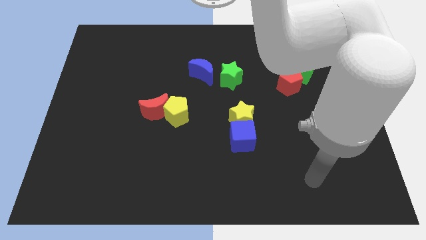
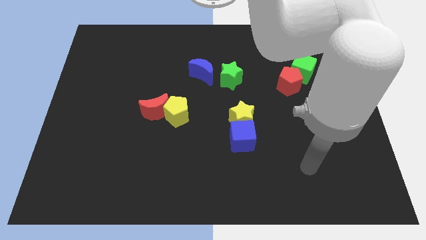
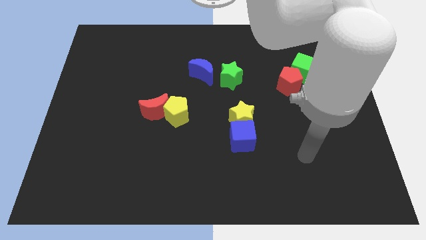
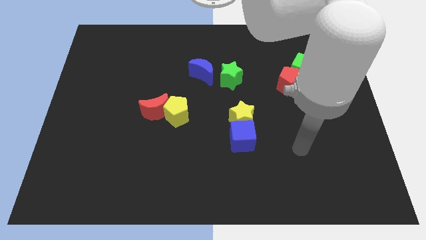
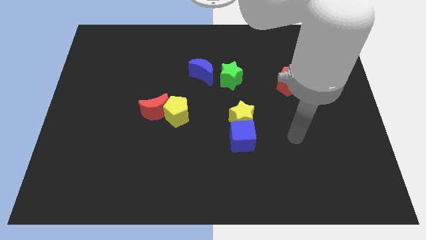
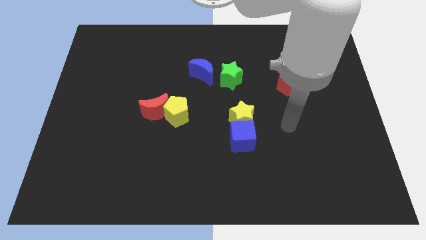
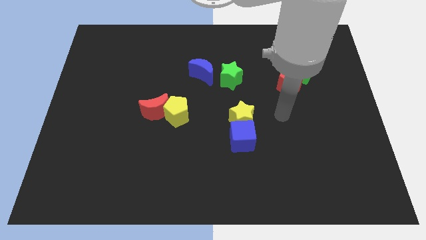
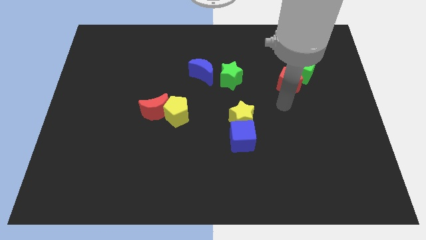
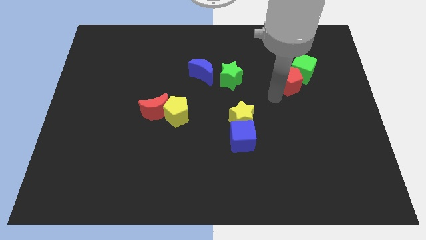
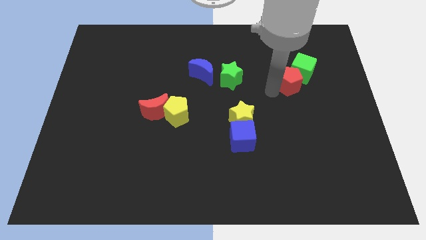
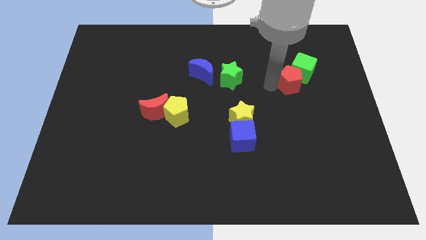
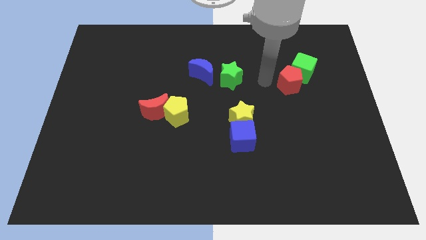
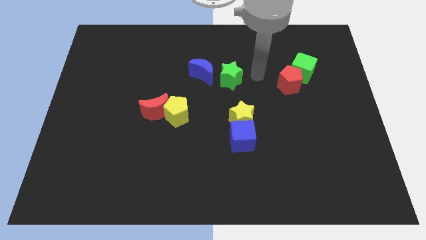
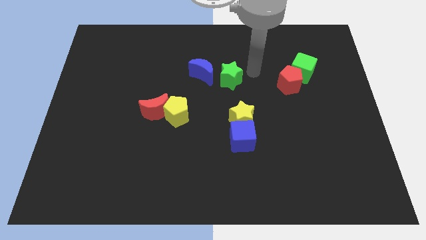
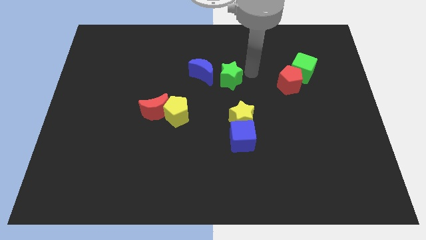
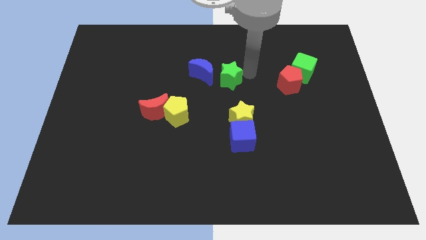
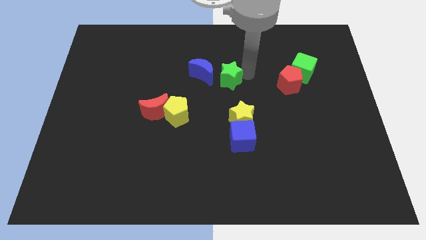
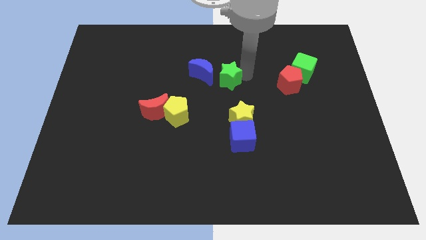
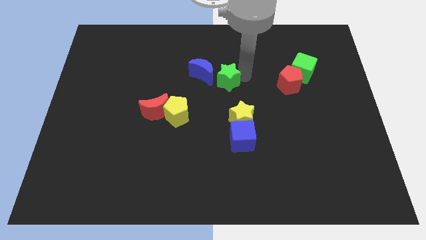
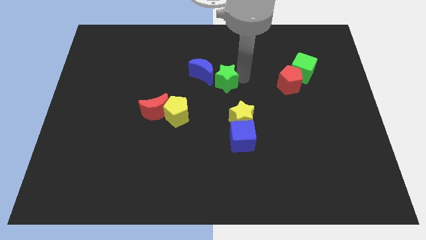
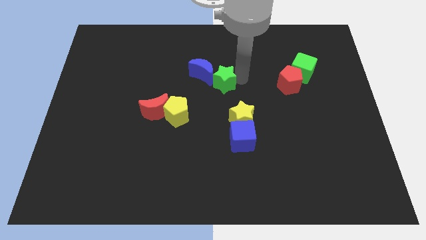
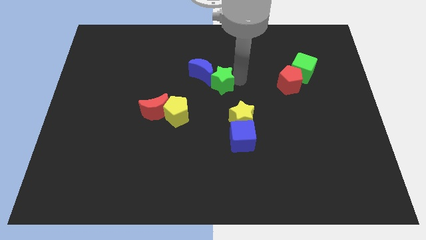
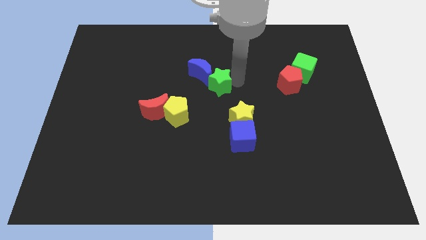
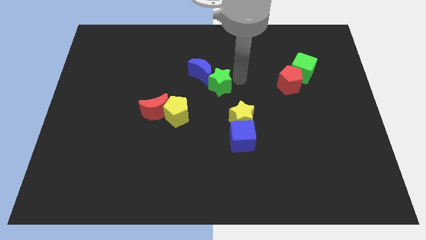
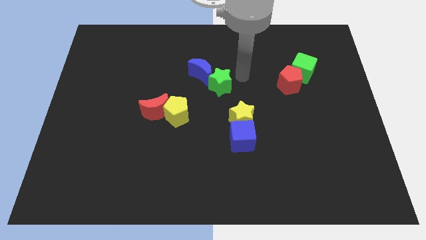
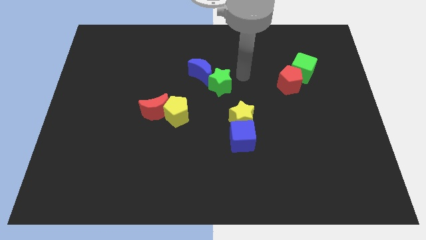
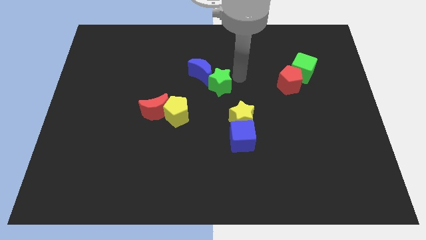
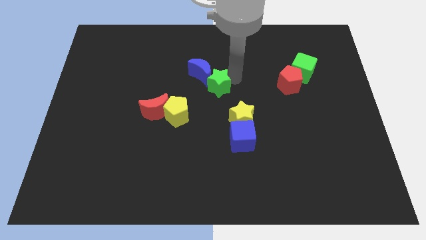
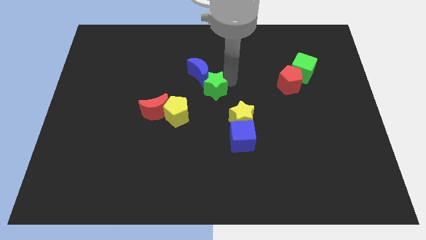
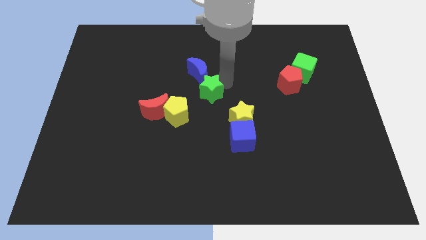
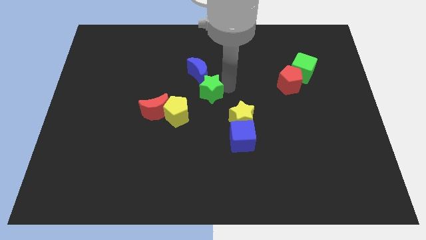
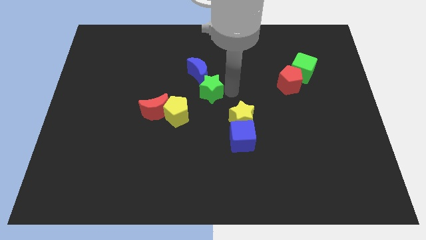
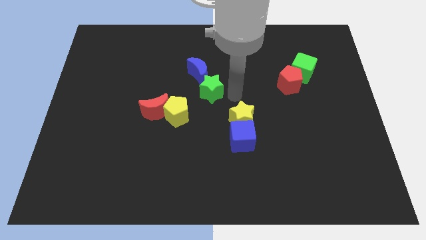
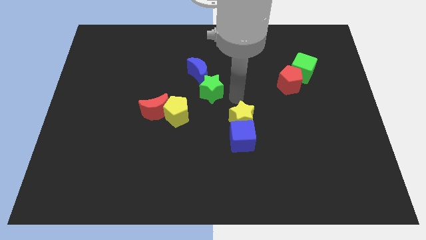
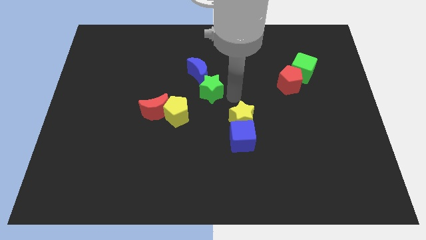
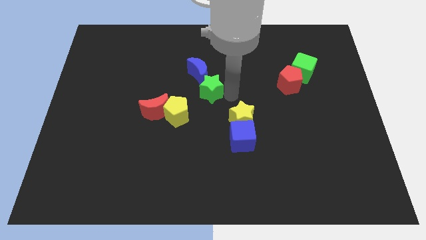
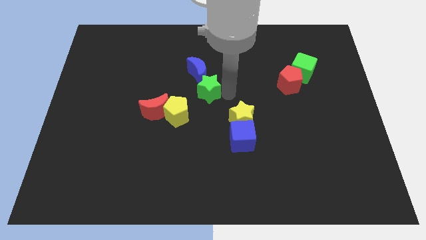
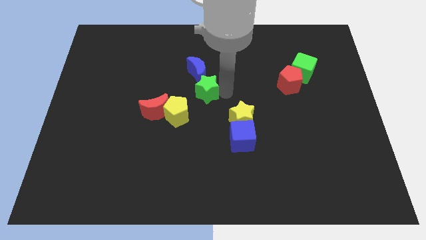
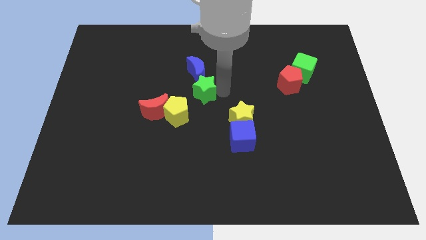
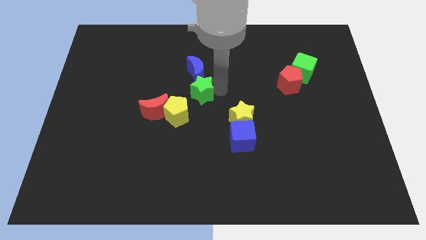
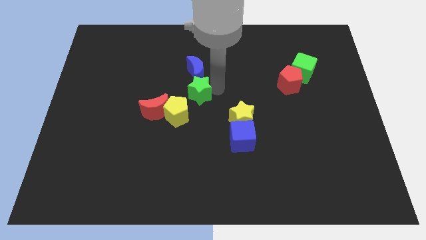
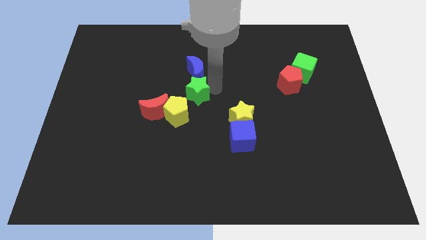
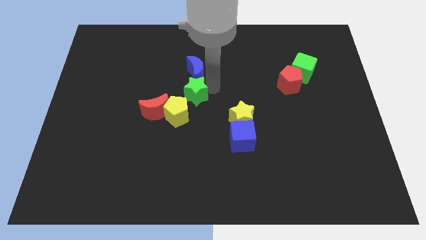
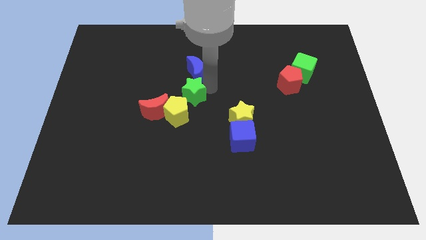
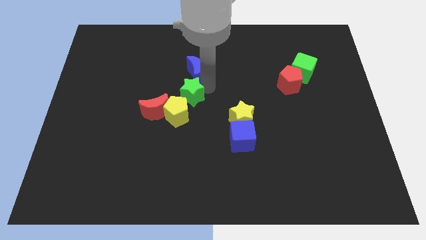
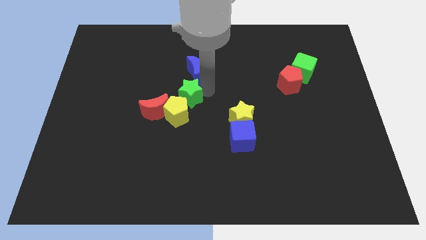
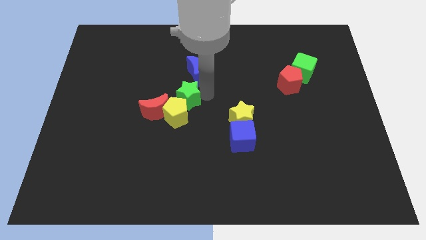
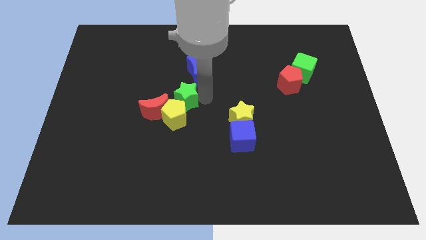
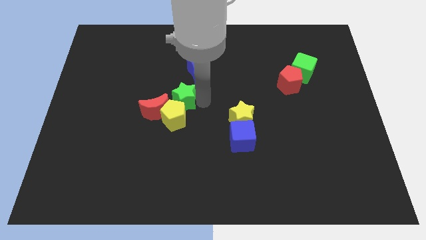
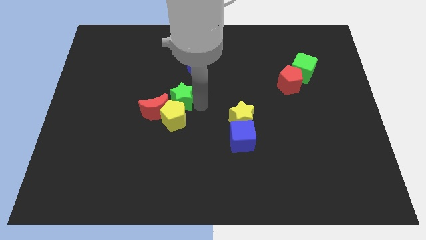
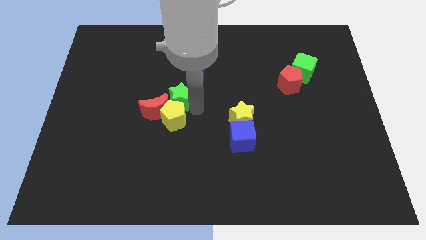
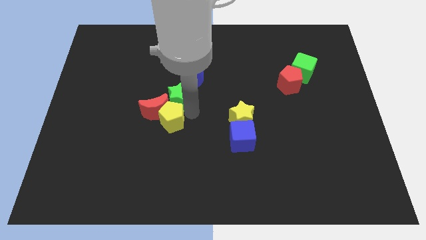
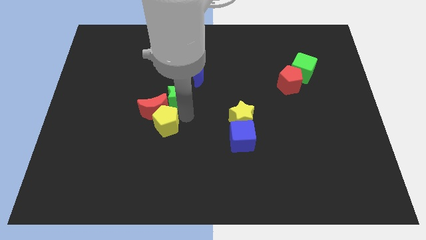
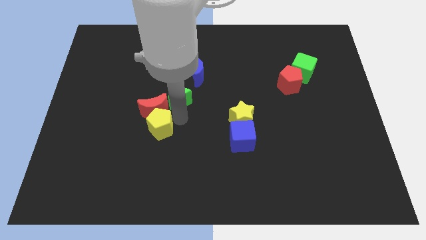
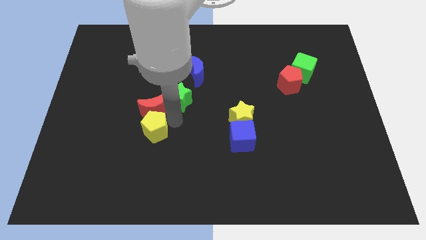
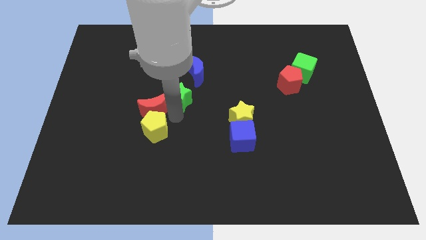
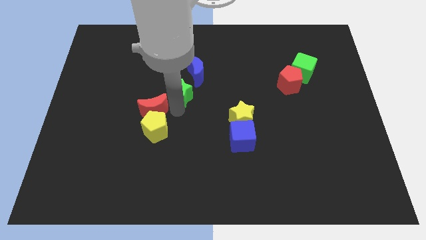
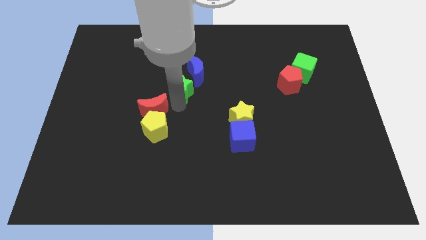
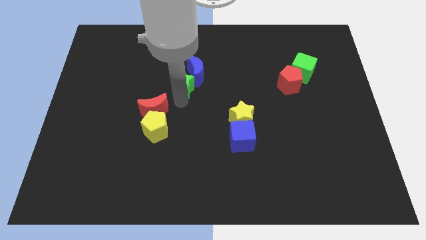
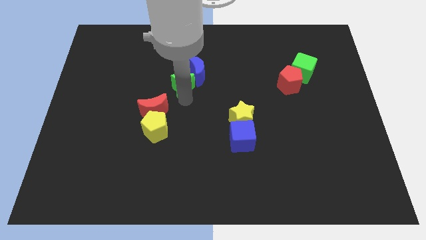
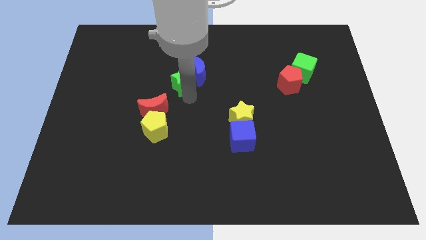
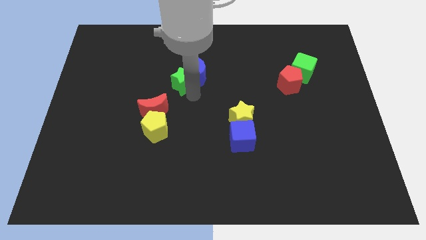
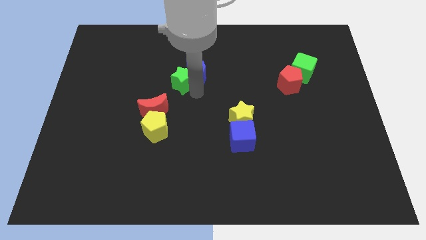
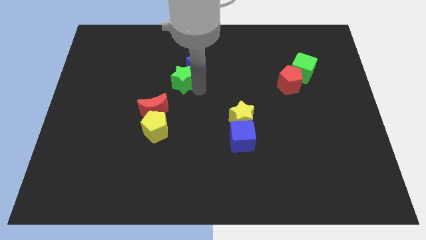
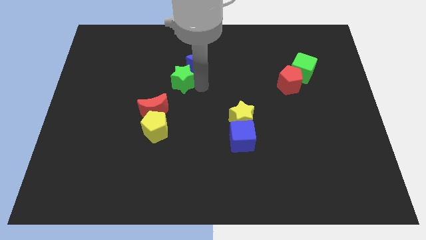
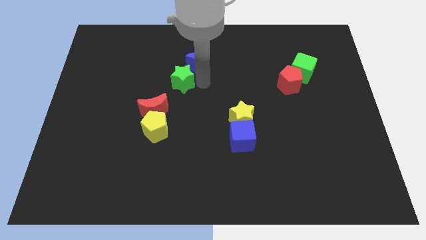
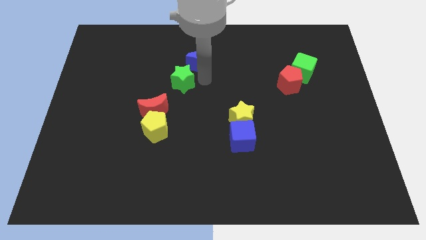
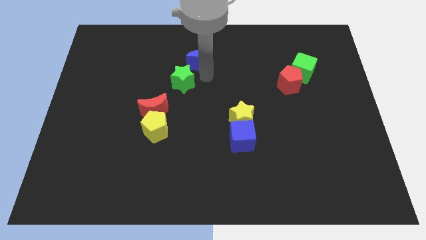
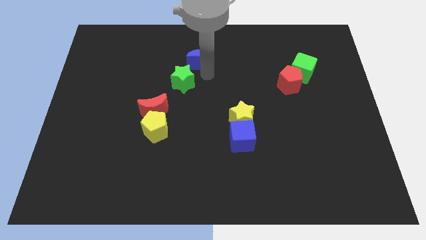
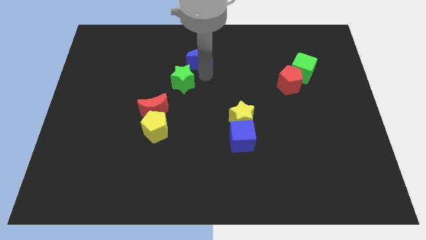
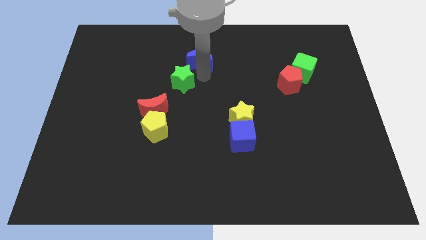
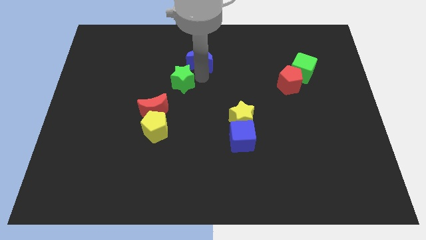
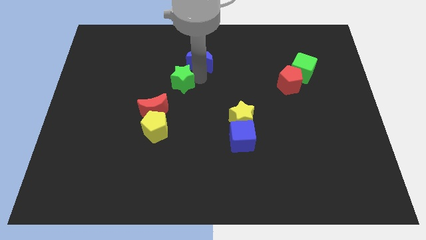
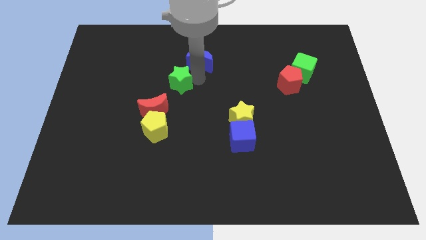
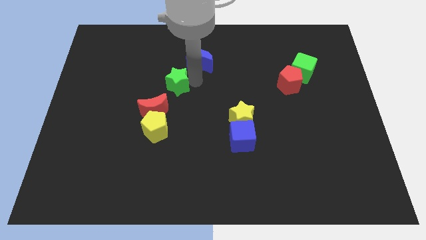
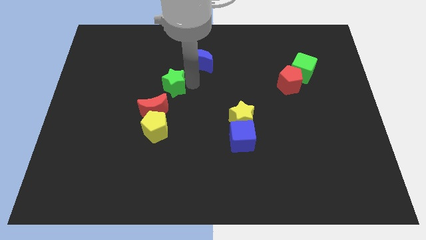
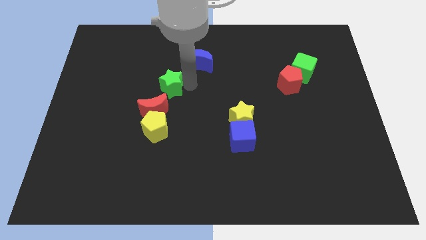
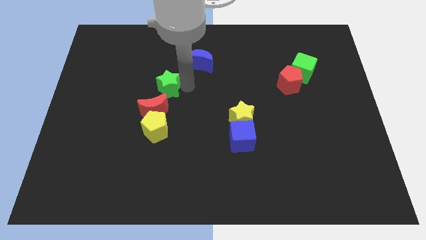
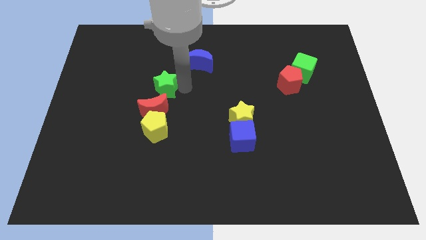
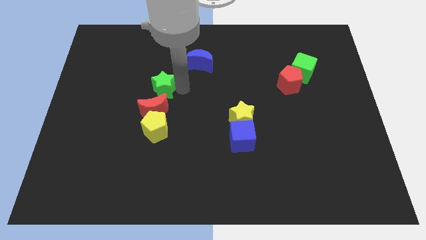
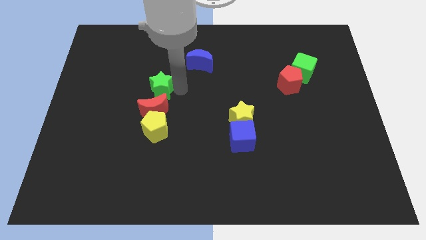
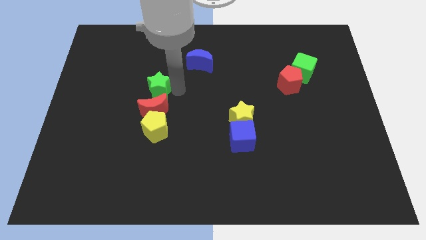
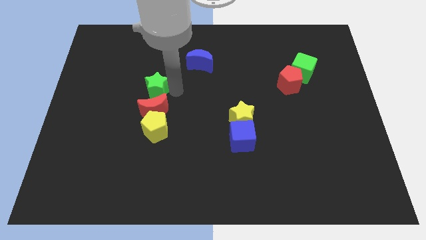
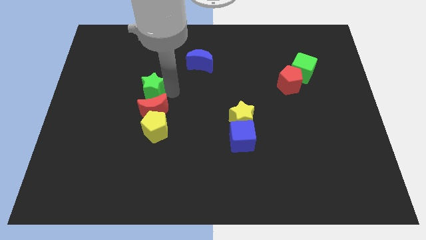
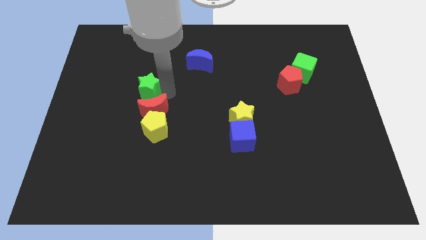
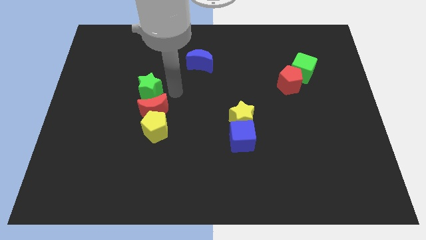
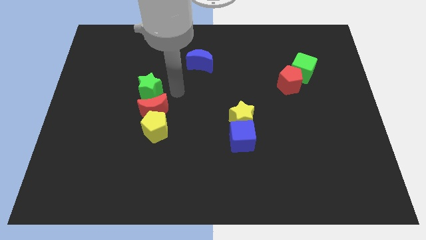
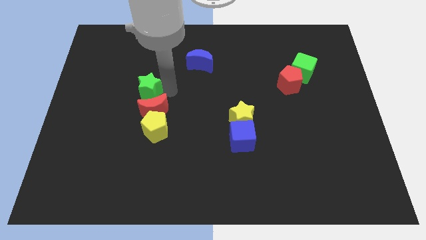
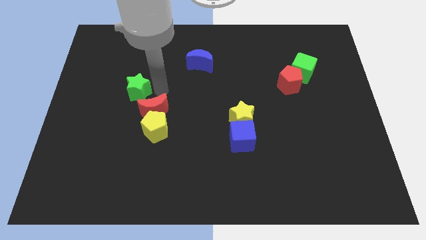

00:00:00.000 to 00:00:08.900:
push the green star to the left
